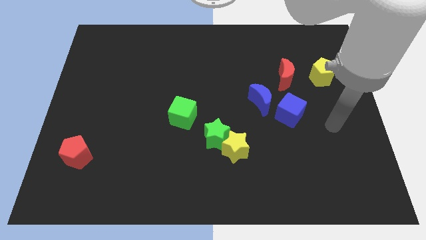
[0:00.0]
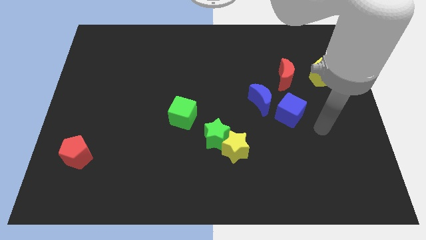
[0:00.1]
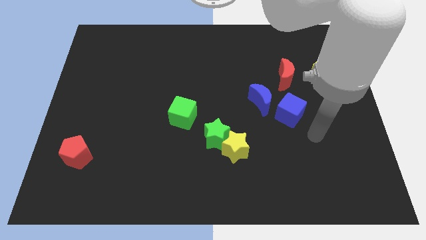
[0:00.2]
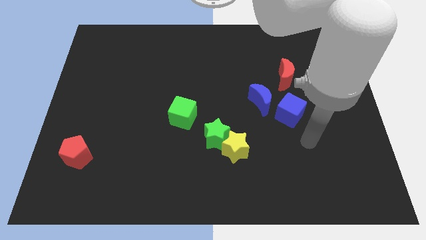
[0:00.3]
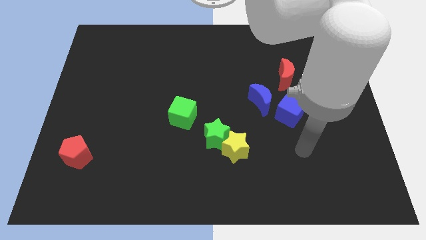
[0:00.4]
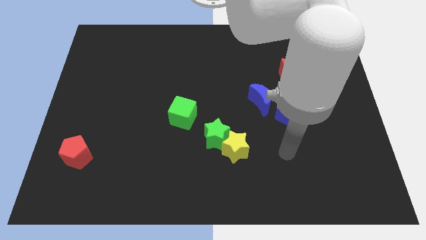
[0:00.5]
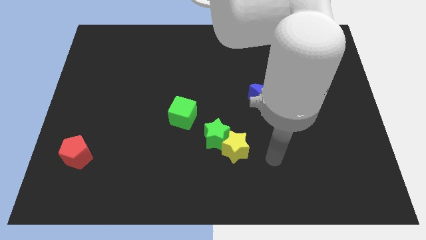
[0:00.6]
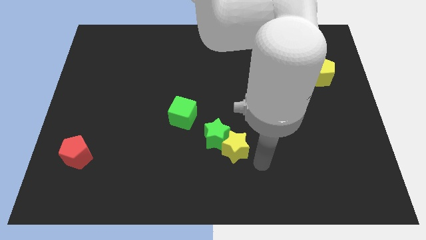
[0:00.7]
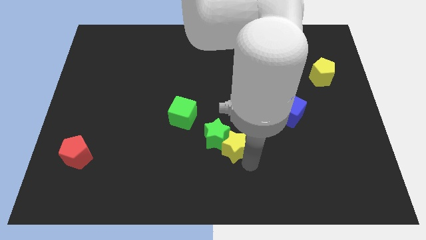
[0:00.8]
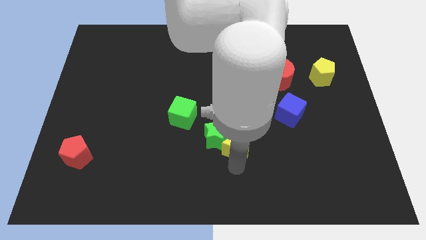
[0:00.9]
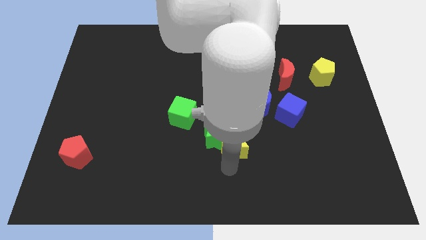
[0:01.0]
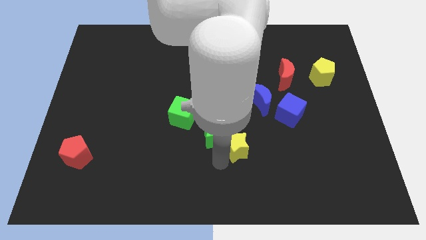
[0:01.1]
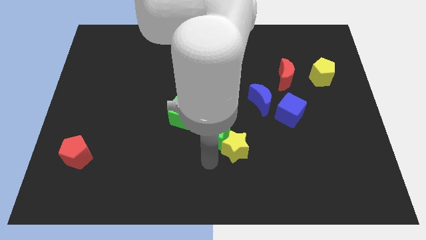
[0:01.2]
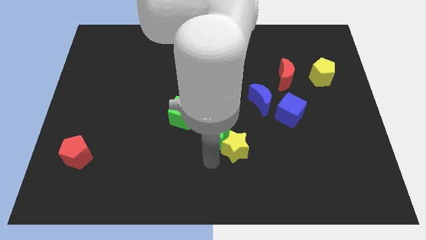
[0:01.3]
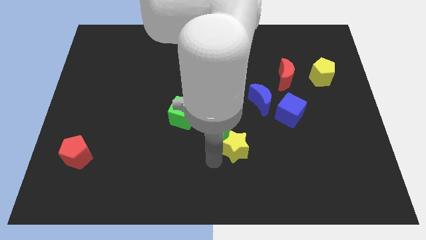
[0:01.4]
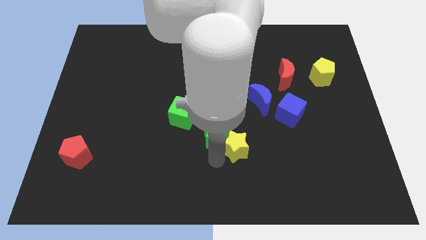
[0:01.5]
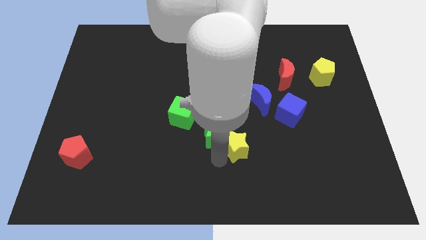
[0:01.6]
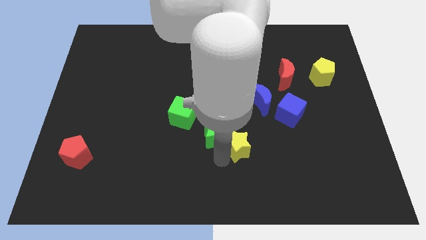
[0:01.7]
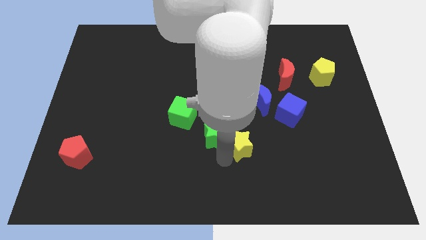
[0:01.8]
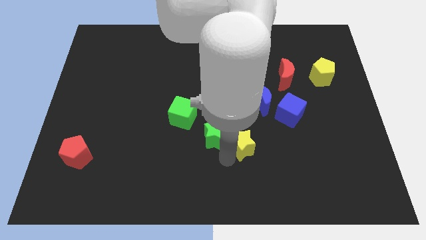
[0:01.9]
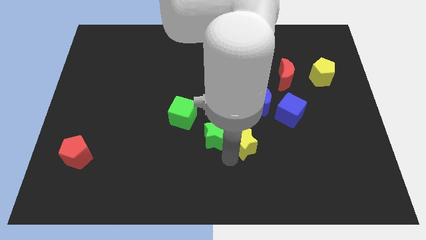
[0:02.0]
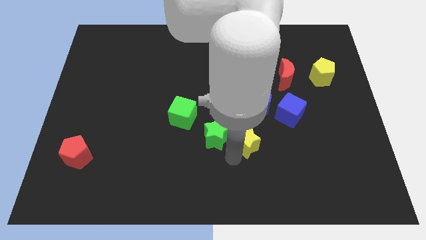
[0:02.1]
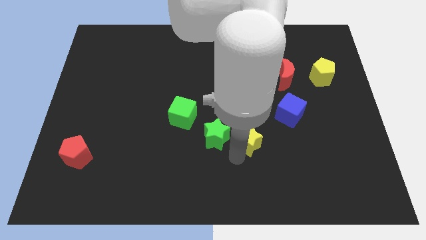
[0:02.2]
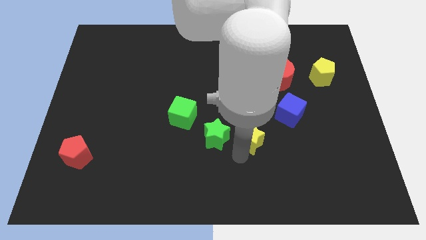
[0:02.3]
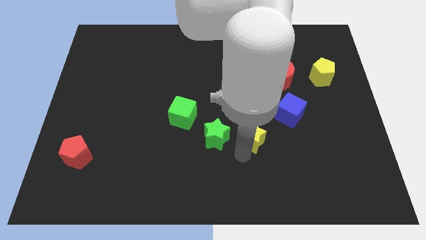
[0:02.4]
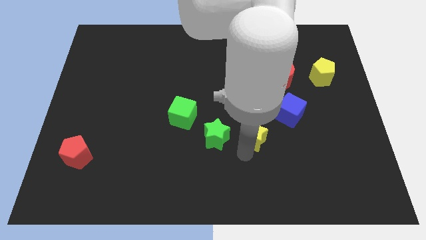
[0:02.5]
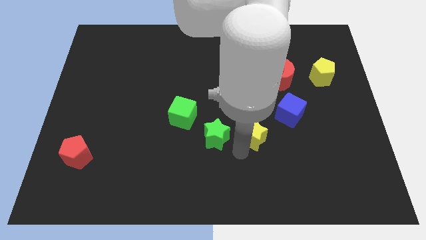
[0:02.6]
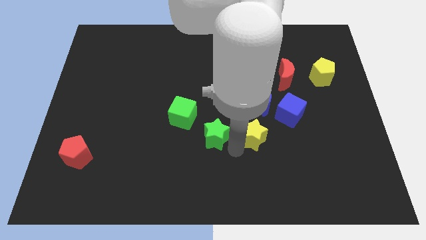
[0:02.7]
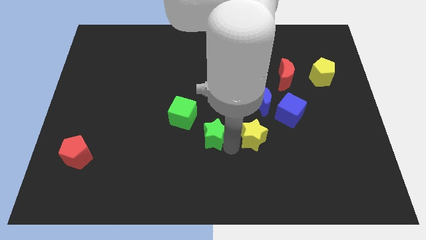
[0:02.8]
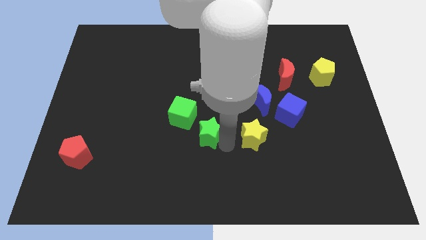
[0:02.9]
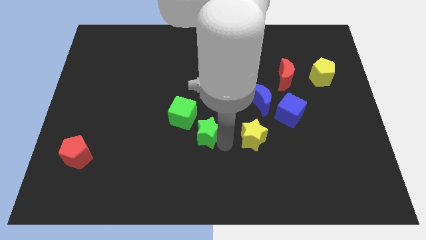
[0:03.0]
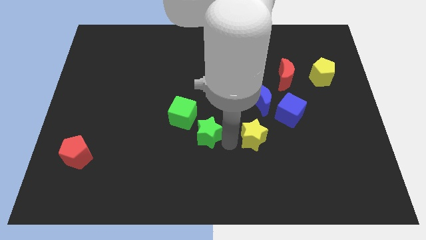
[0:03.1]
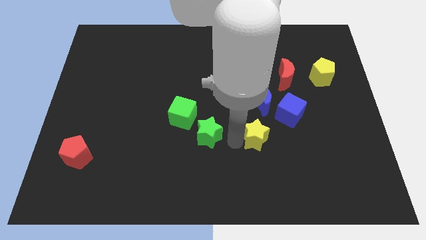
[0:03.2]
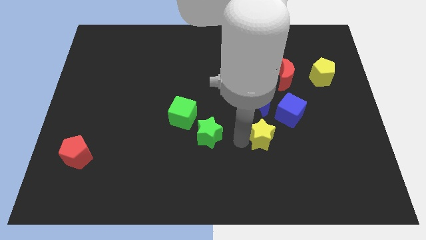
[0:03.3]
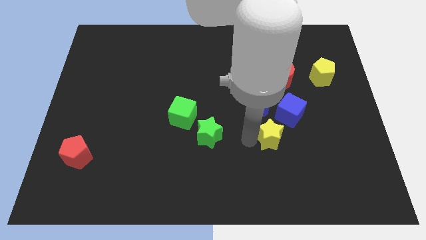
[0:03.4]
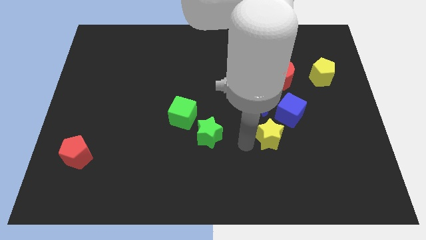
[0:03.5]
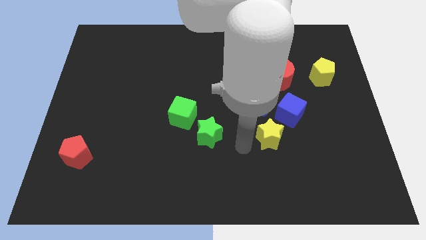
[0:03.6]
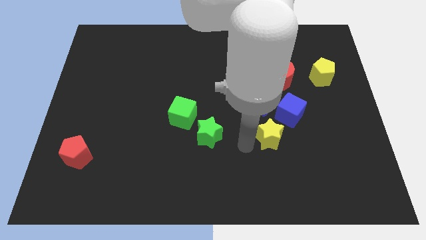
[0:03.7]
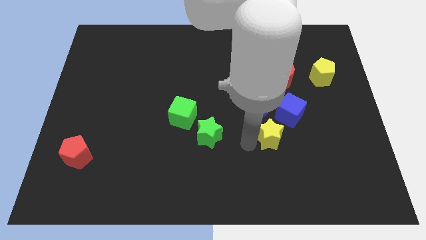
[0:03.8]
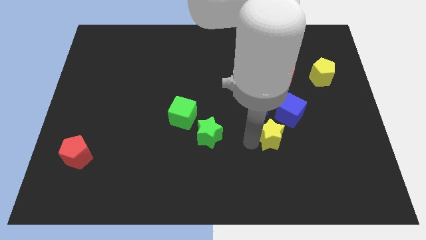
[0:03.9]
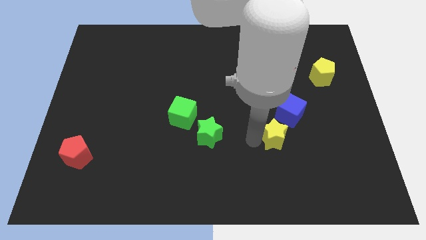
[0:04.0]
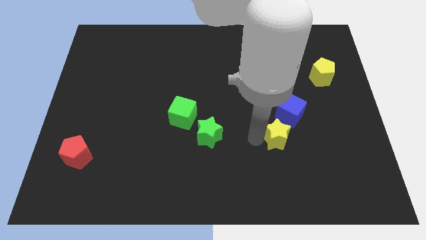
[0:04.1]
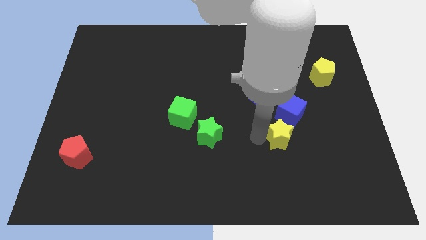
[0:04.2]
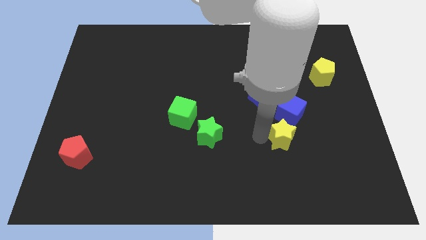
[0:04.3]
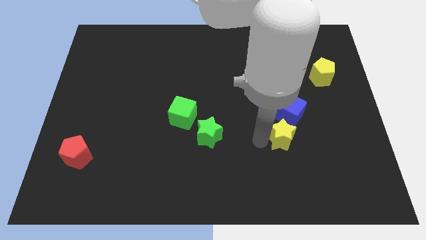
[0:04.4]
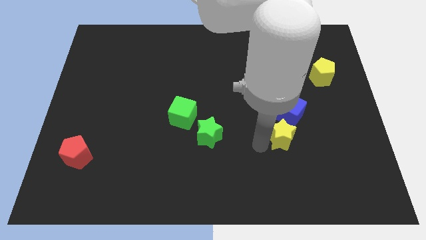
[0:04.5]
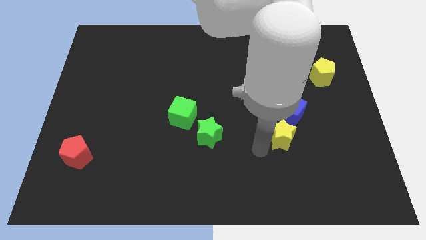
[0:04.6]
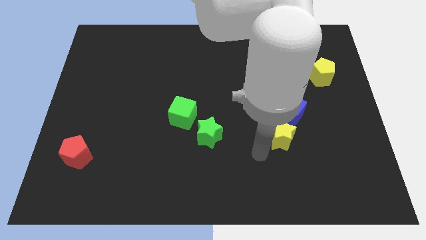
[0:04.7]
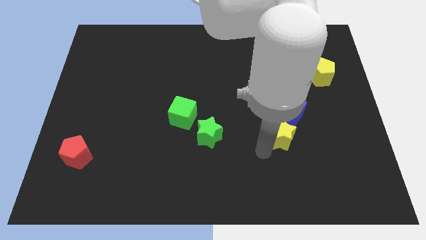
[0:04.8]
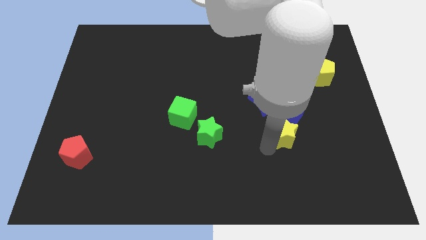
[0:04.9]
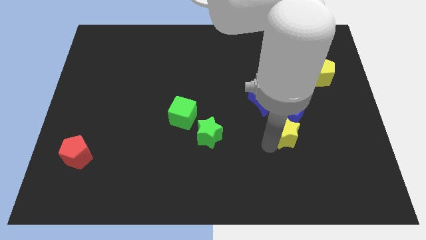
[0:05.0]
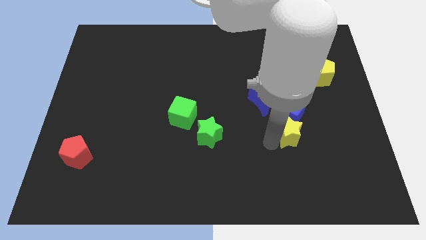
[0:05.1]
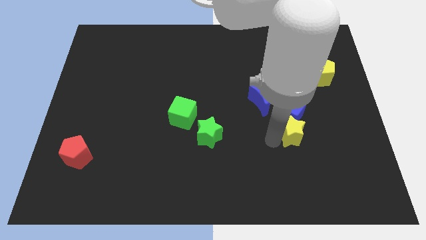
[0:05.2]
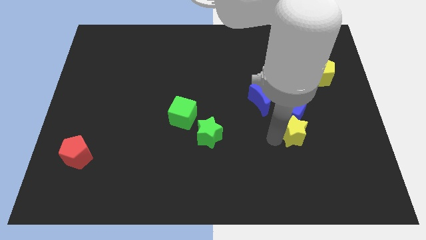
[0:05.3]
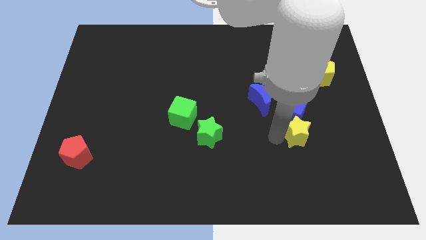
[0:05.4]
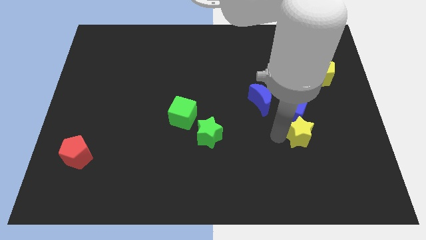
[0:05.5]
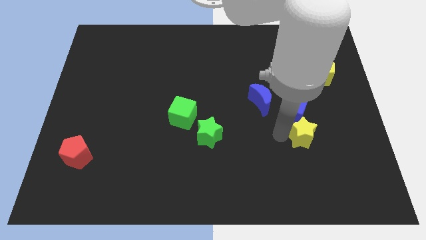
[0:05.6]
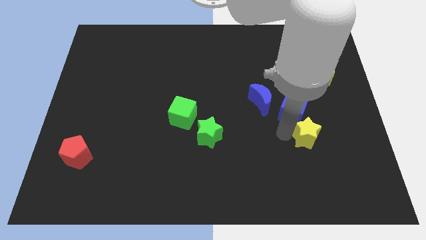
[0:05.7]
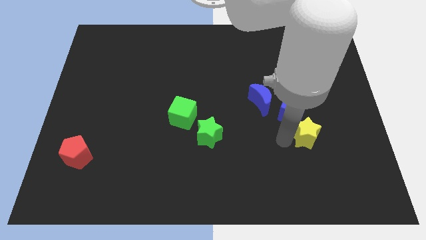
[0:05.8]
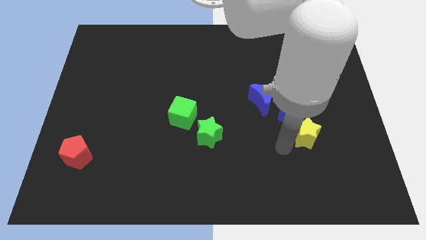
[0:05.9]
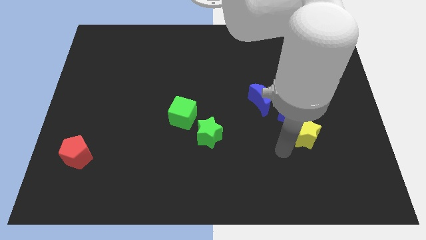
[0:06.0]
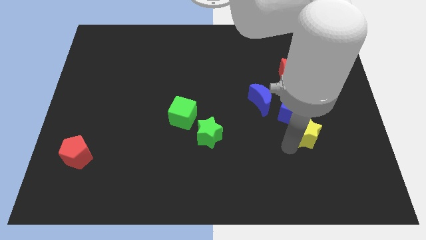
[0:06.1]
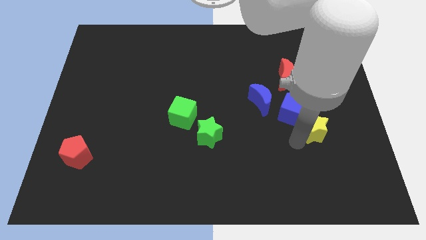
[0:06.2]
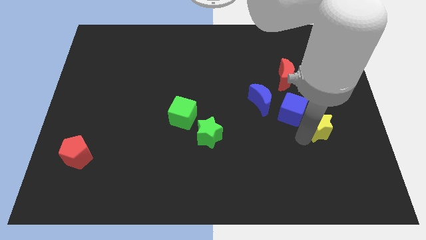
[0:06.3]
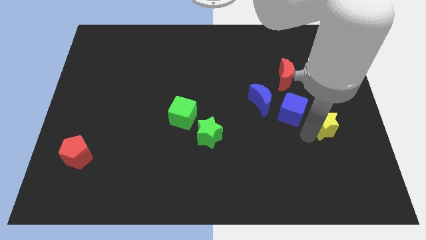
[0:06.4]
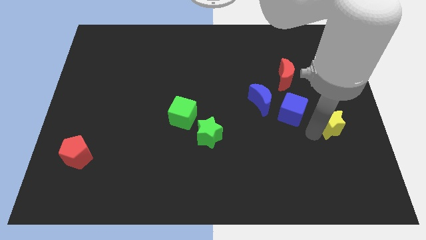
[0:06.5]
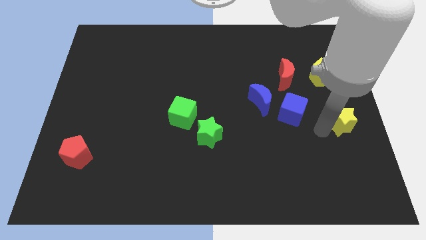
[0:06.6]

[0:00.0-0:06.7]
put the yellow star to the right side of the board
